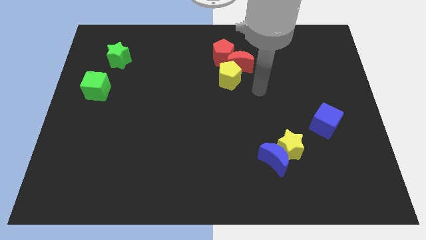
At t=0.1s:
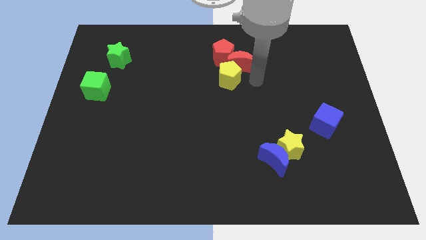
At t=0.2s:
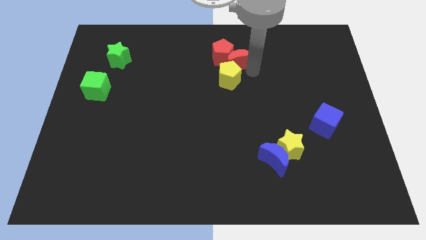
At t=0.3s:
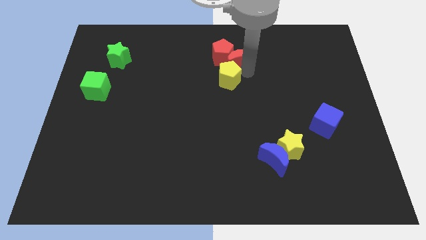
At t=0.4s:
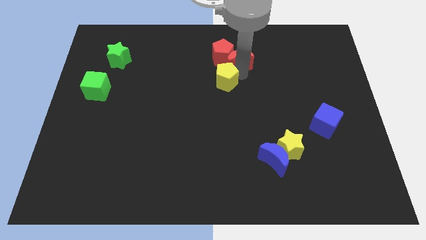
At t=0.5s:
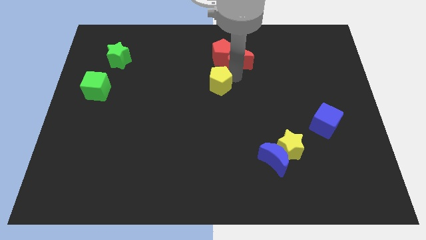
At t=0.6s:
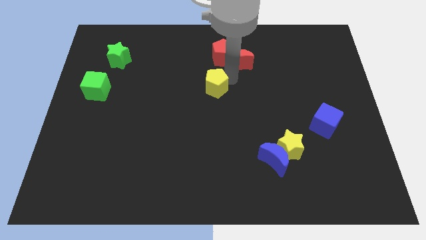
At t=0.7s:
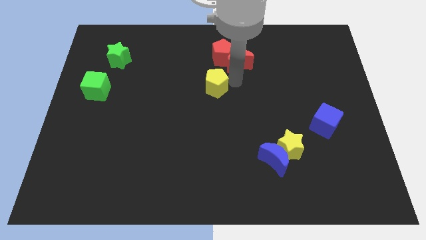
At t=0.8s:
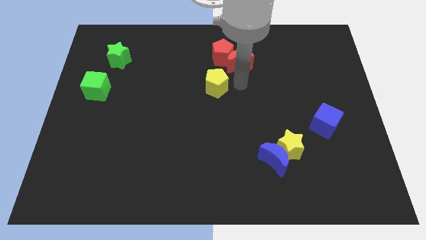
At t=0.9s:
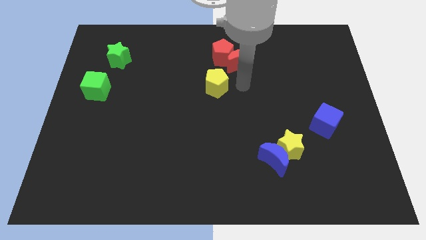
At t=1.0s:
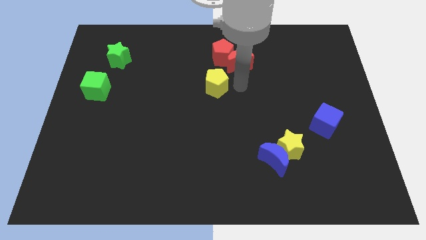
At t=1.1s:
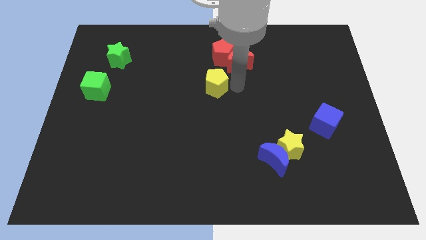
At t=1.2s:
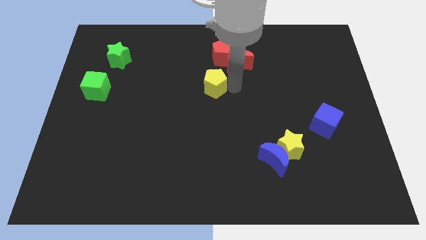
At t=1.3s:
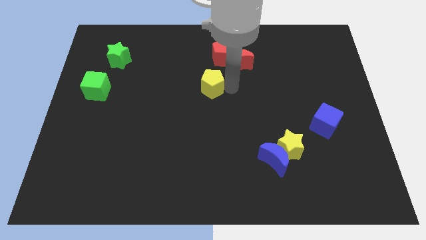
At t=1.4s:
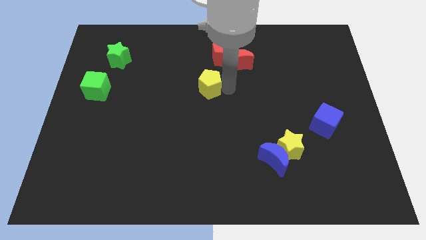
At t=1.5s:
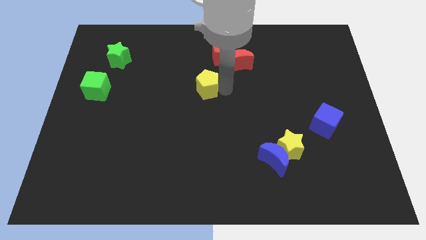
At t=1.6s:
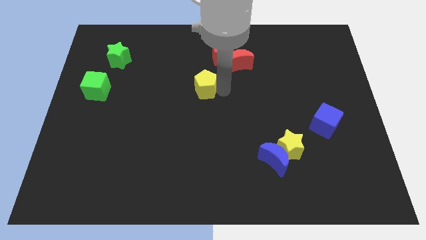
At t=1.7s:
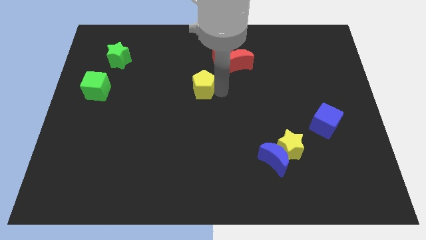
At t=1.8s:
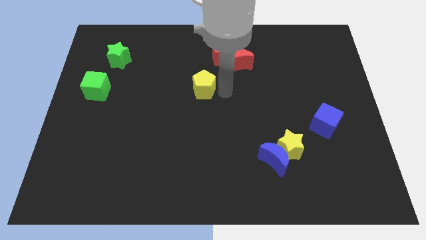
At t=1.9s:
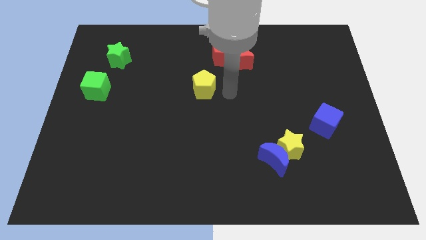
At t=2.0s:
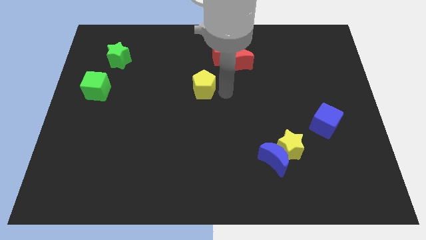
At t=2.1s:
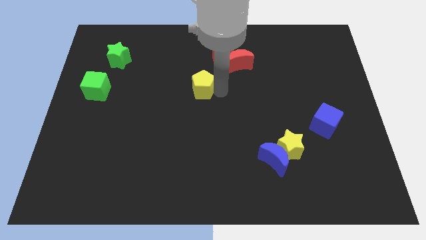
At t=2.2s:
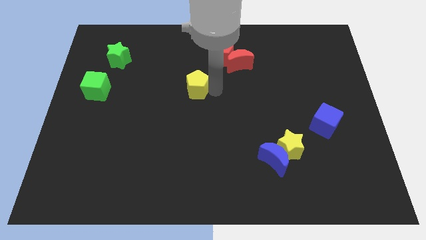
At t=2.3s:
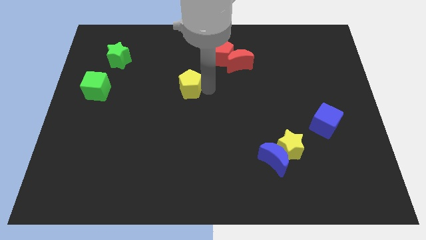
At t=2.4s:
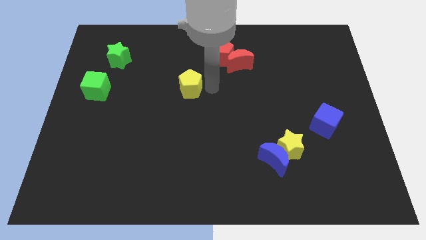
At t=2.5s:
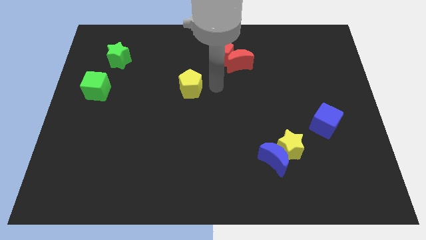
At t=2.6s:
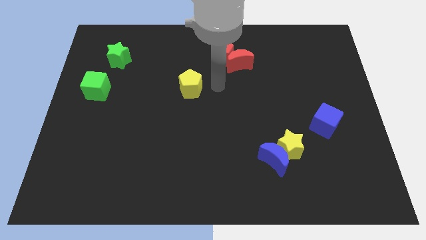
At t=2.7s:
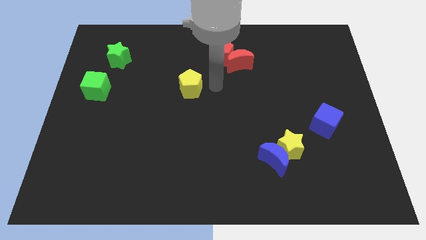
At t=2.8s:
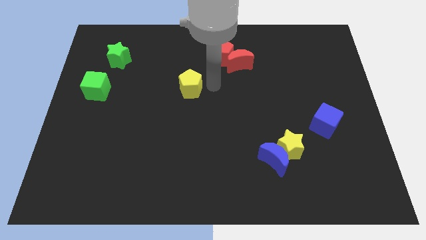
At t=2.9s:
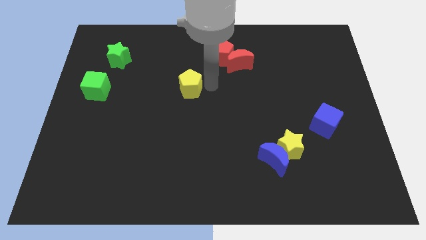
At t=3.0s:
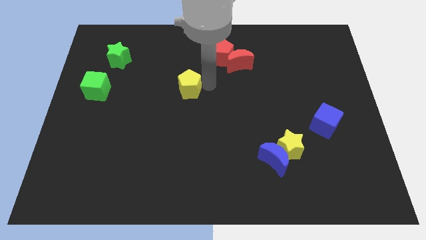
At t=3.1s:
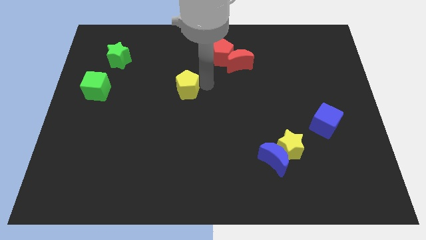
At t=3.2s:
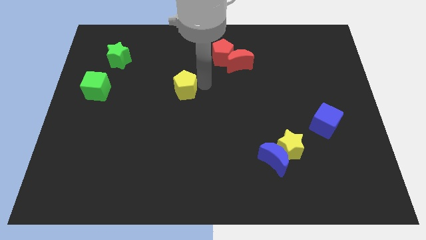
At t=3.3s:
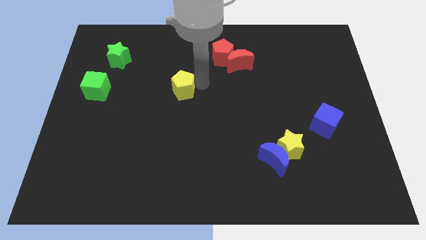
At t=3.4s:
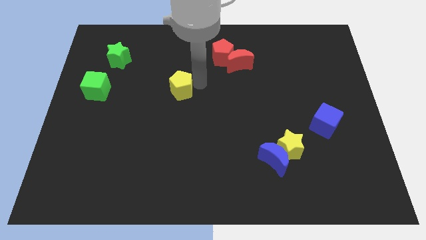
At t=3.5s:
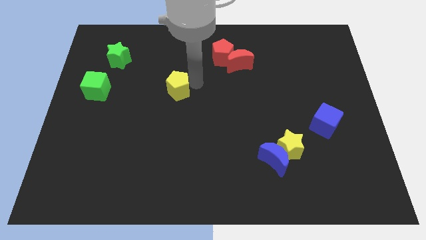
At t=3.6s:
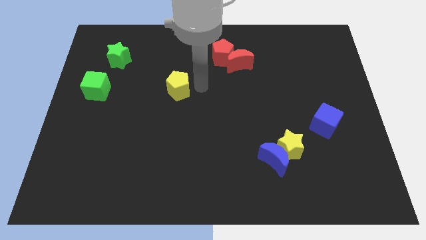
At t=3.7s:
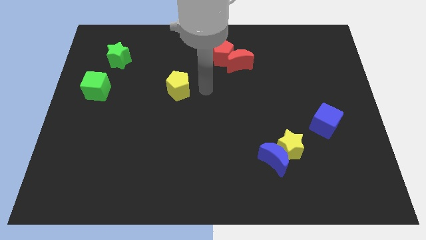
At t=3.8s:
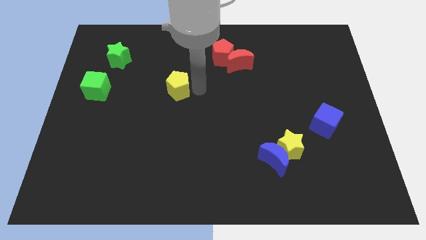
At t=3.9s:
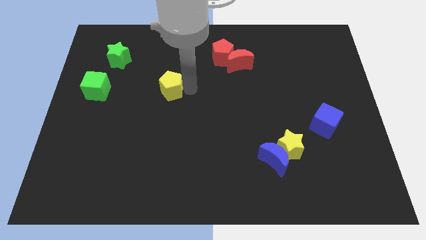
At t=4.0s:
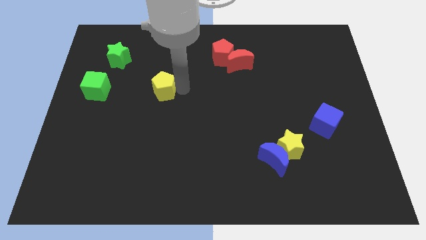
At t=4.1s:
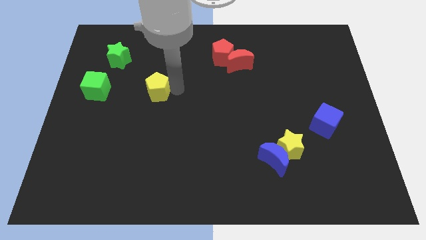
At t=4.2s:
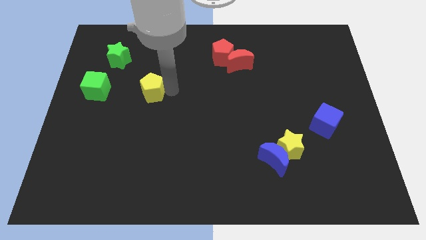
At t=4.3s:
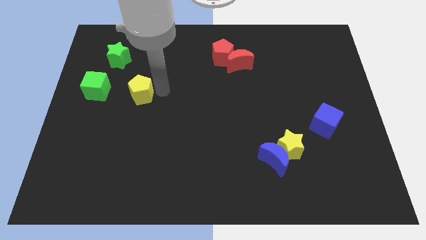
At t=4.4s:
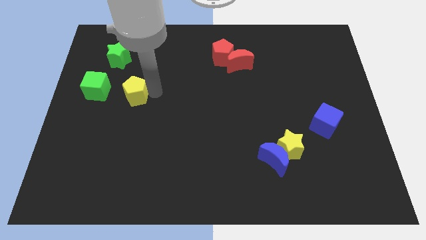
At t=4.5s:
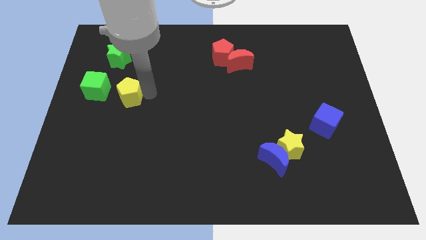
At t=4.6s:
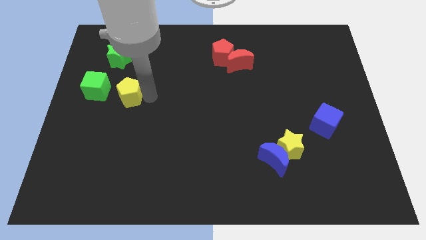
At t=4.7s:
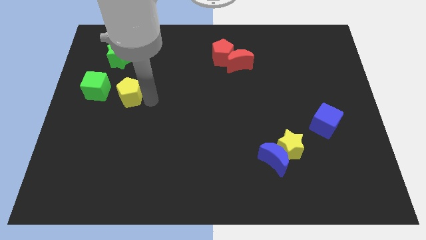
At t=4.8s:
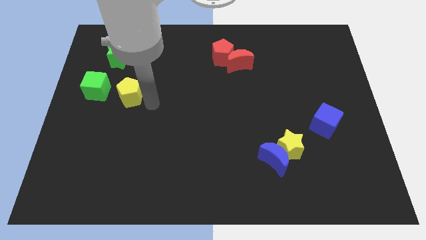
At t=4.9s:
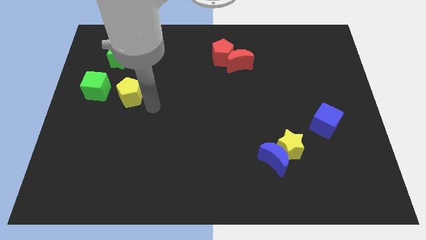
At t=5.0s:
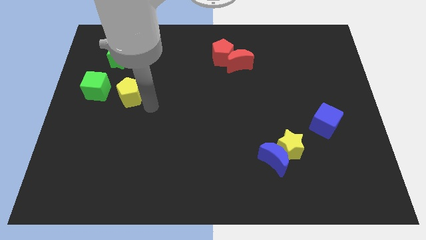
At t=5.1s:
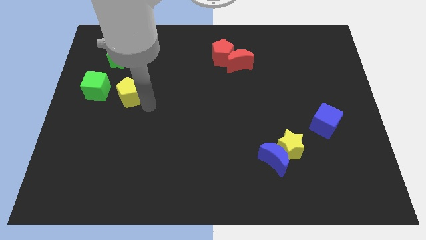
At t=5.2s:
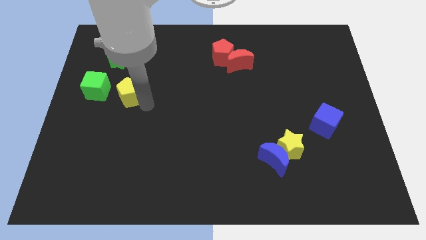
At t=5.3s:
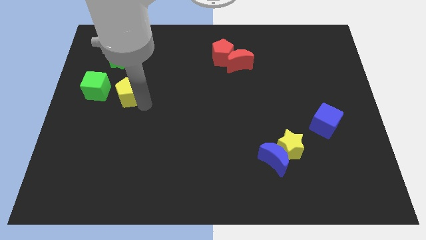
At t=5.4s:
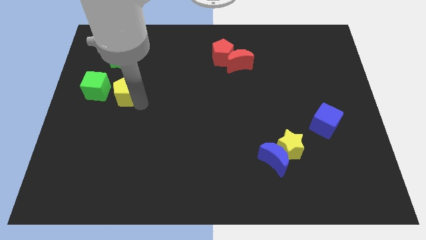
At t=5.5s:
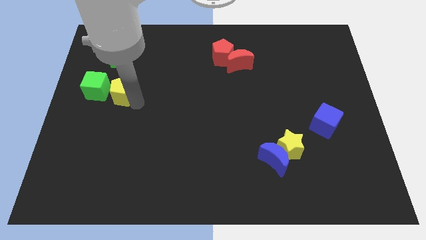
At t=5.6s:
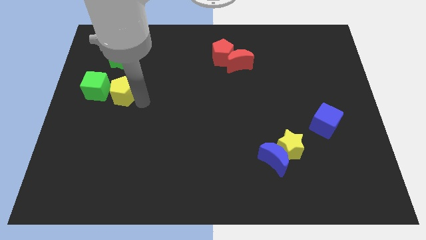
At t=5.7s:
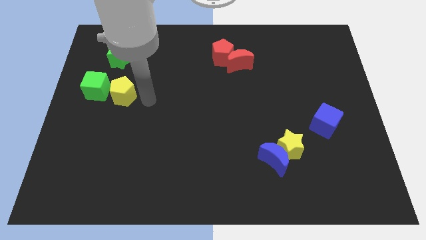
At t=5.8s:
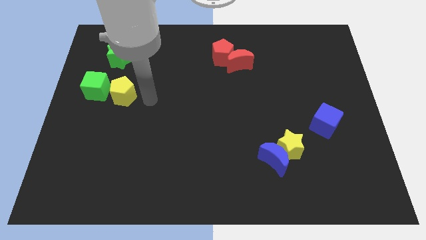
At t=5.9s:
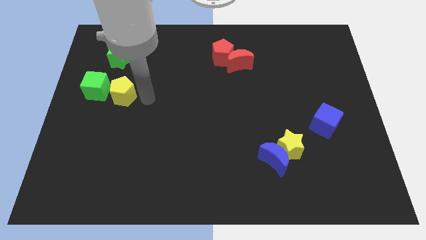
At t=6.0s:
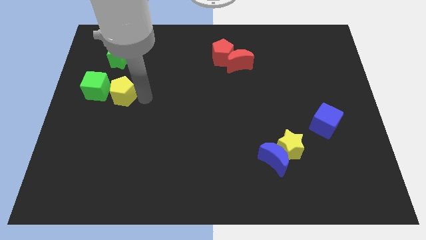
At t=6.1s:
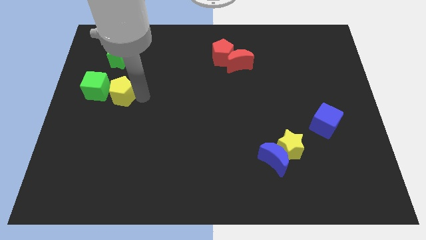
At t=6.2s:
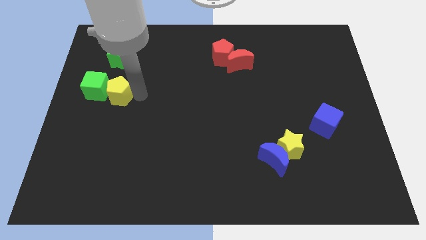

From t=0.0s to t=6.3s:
push the yellow pentagon close to the green cube

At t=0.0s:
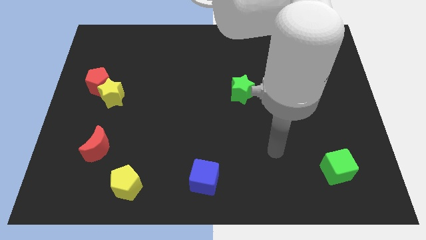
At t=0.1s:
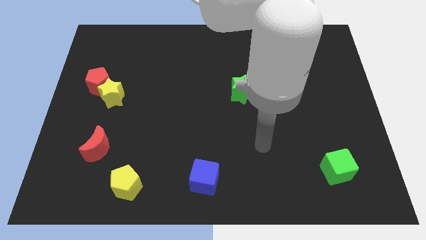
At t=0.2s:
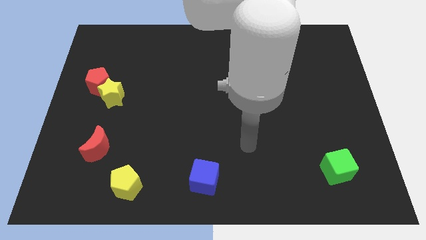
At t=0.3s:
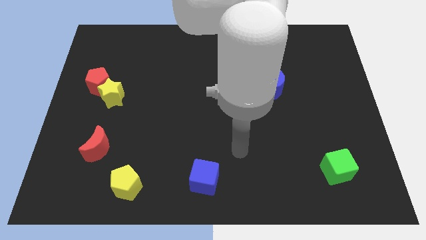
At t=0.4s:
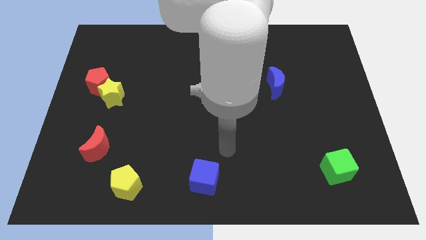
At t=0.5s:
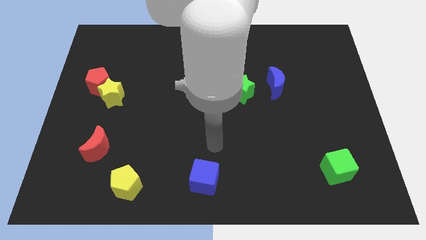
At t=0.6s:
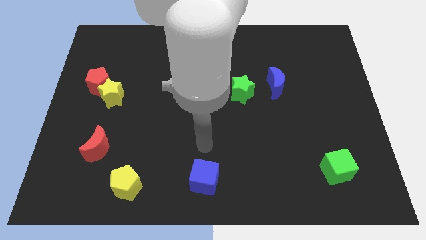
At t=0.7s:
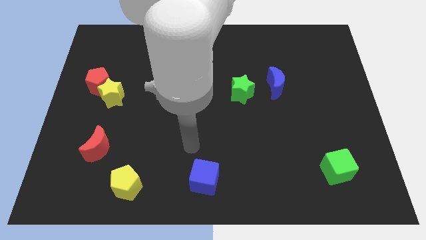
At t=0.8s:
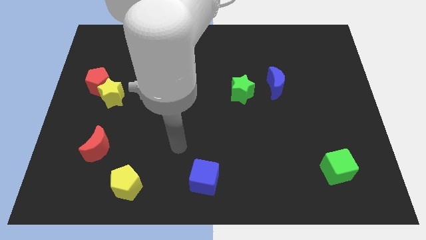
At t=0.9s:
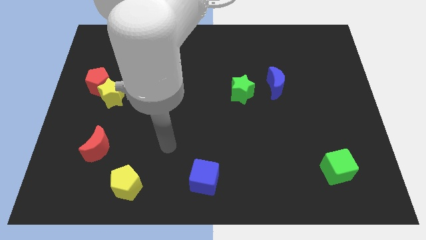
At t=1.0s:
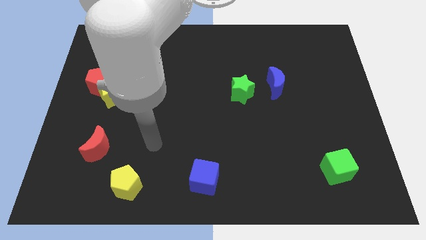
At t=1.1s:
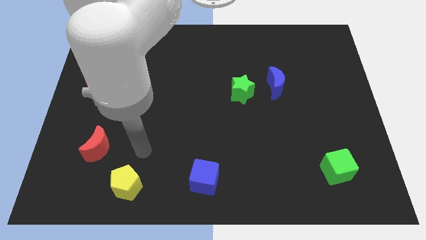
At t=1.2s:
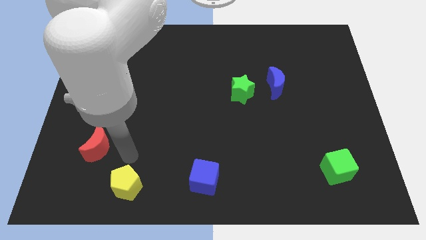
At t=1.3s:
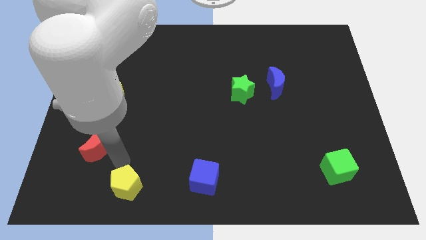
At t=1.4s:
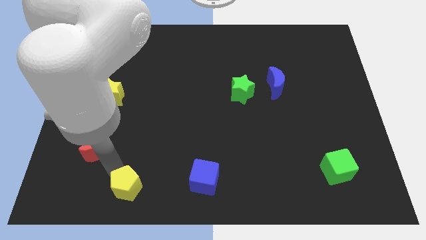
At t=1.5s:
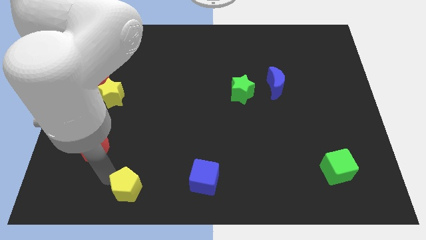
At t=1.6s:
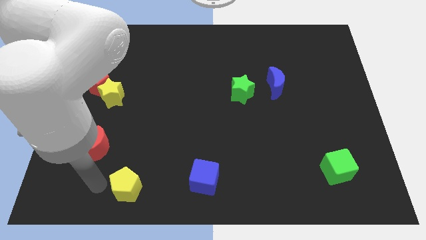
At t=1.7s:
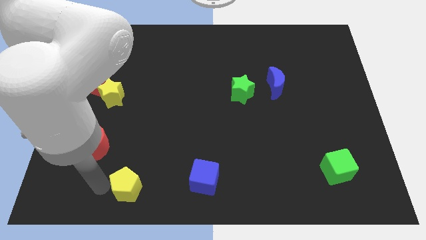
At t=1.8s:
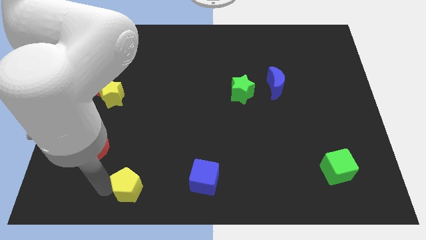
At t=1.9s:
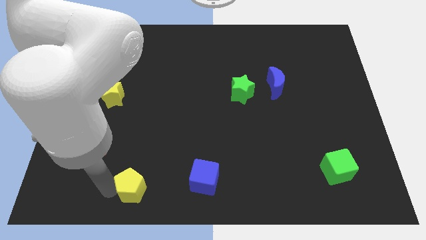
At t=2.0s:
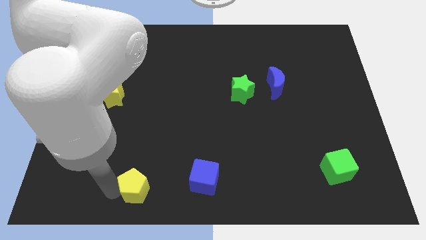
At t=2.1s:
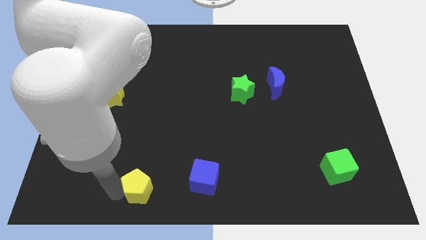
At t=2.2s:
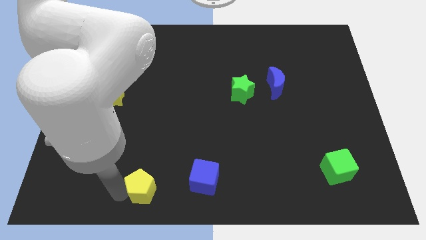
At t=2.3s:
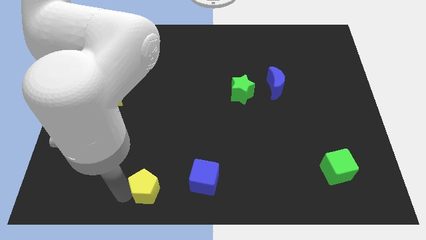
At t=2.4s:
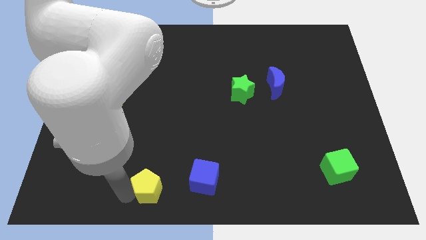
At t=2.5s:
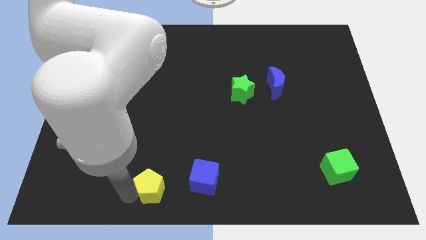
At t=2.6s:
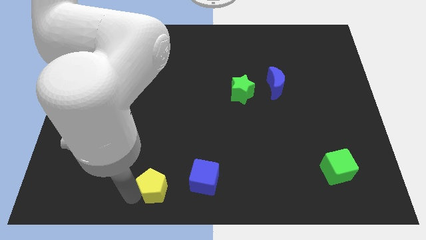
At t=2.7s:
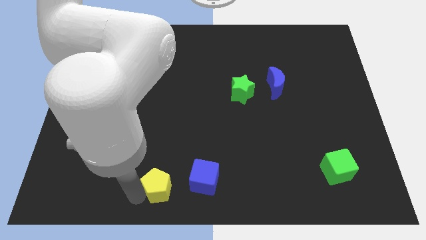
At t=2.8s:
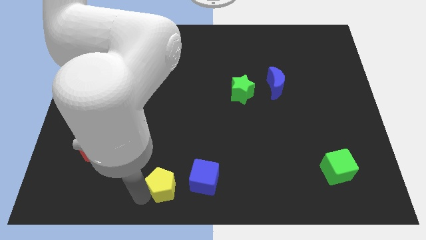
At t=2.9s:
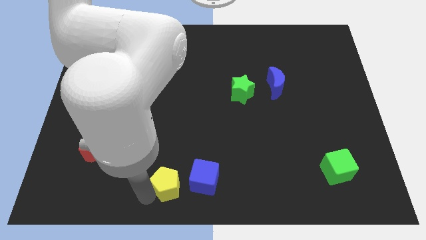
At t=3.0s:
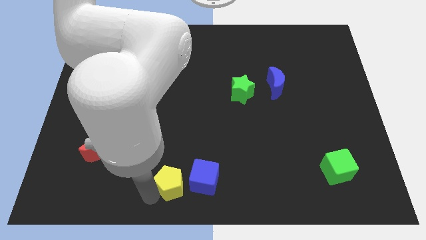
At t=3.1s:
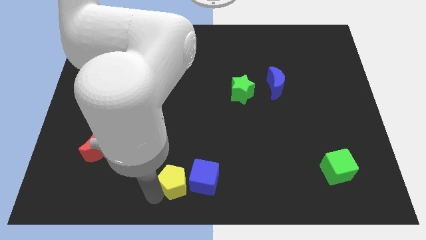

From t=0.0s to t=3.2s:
put the yellow pentagon to the blue cube
